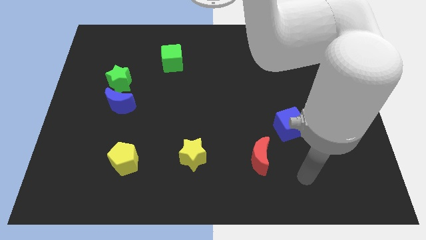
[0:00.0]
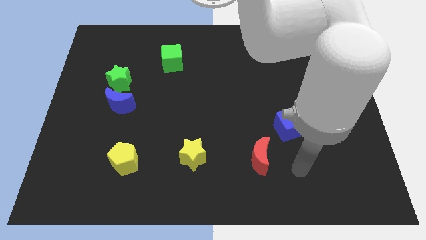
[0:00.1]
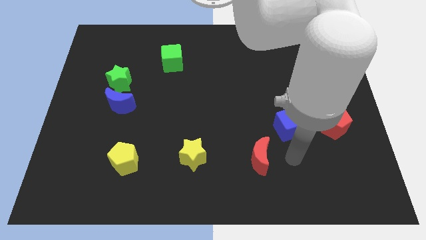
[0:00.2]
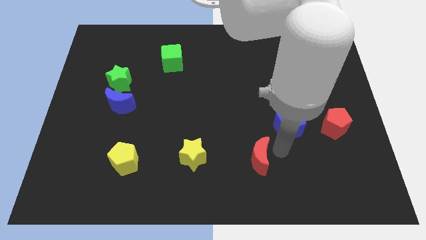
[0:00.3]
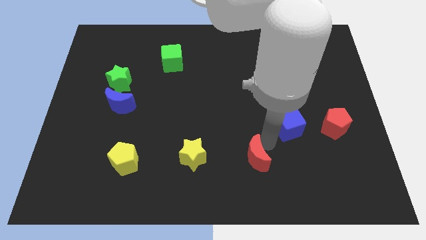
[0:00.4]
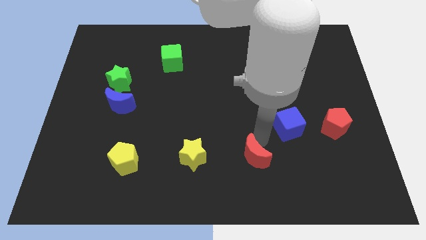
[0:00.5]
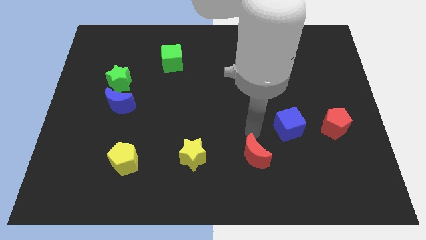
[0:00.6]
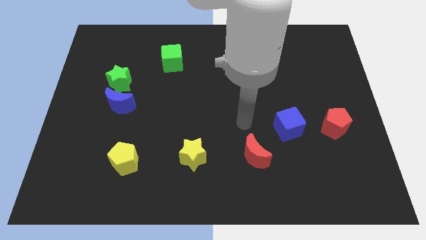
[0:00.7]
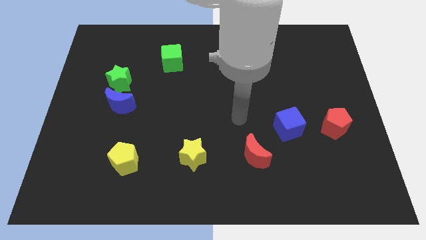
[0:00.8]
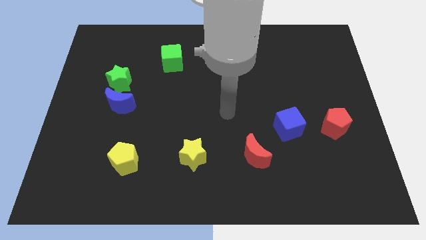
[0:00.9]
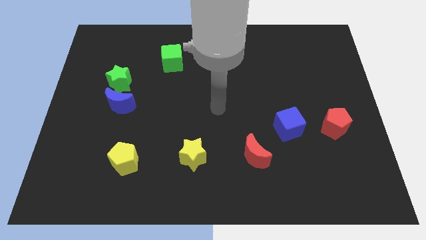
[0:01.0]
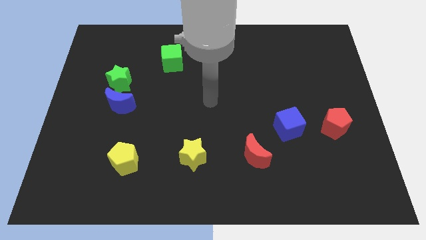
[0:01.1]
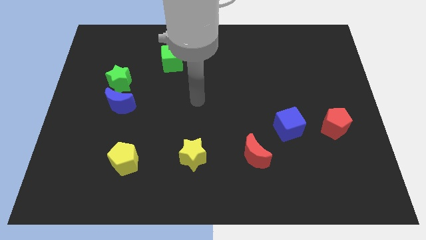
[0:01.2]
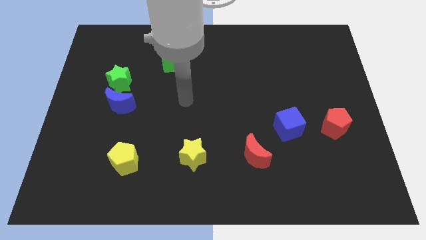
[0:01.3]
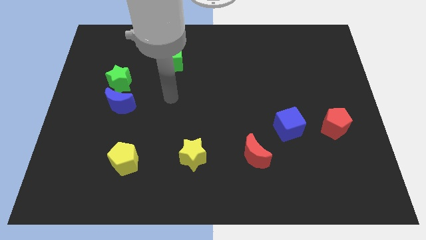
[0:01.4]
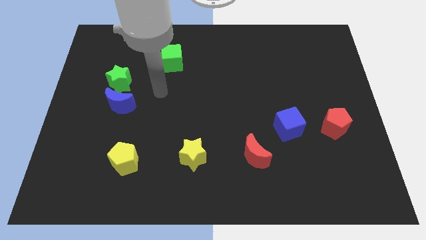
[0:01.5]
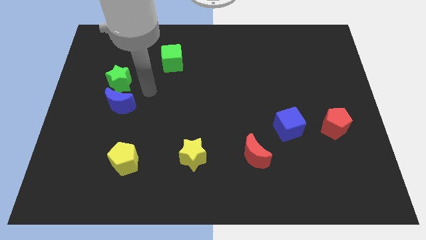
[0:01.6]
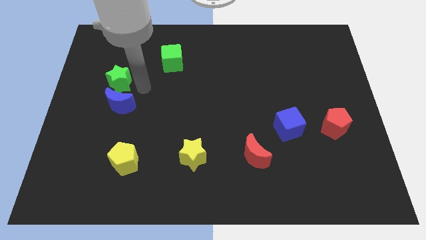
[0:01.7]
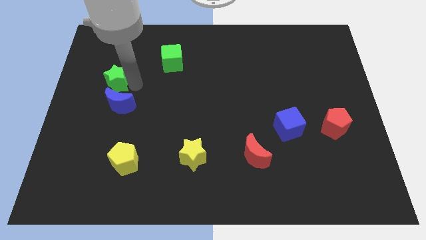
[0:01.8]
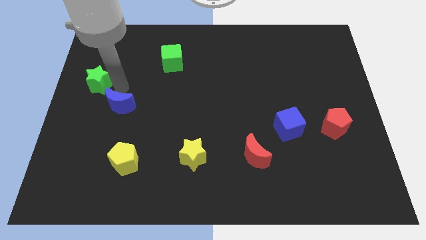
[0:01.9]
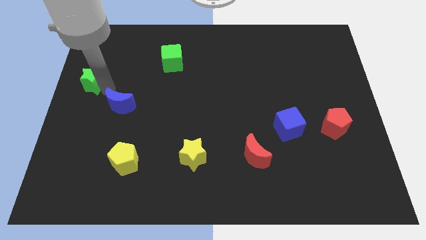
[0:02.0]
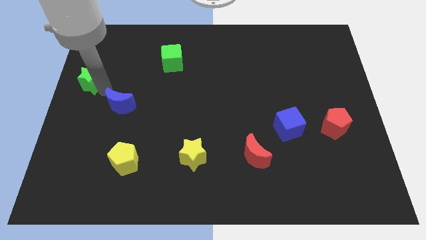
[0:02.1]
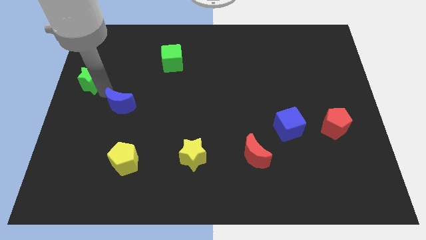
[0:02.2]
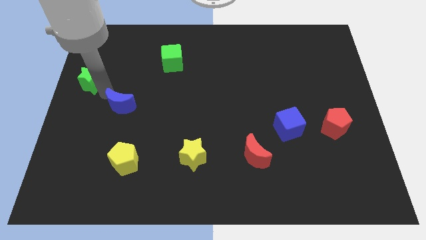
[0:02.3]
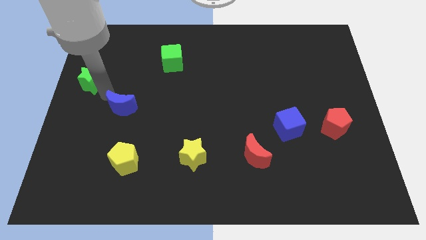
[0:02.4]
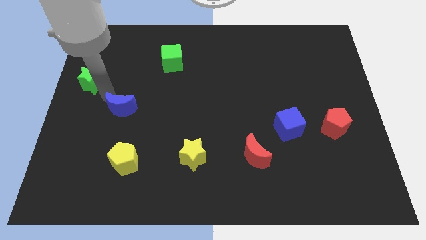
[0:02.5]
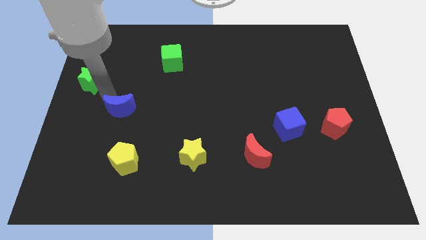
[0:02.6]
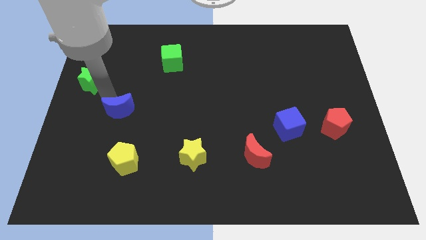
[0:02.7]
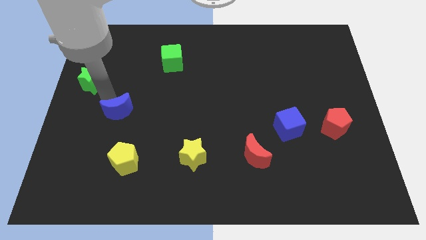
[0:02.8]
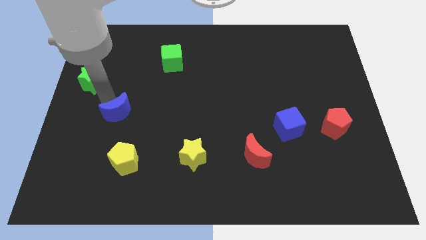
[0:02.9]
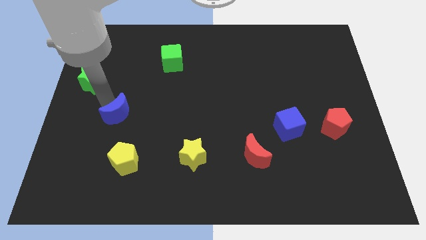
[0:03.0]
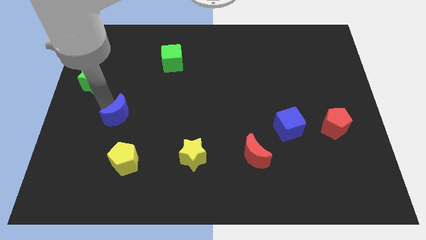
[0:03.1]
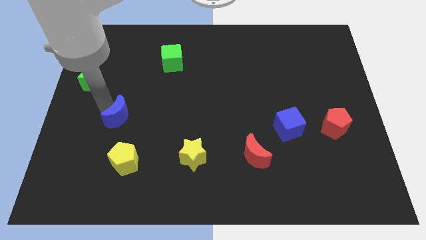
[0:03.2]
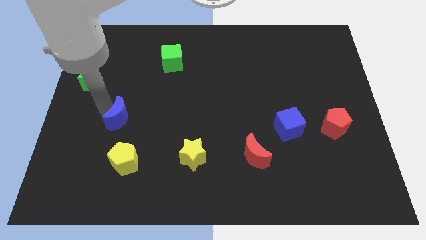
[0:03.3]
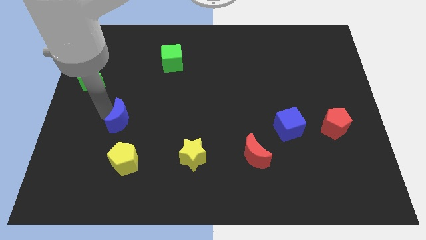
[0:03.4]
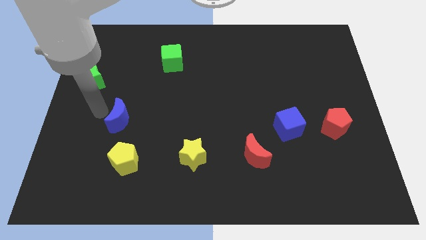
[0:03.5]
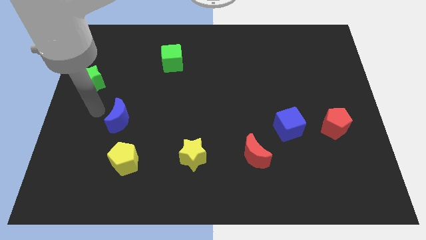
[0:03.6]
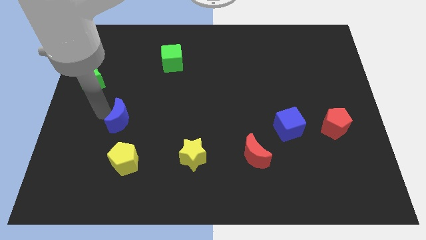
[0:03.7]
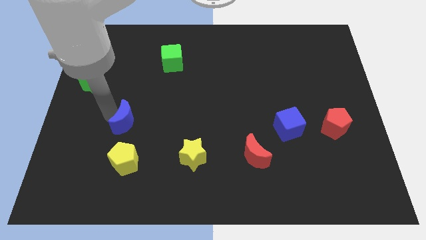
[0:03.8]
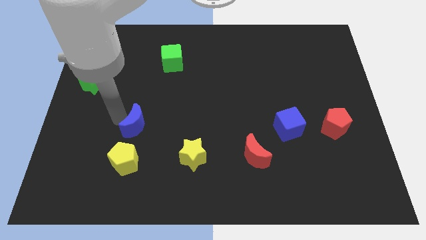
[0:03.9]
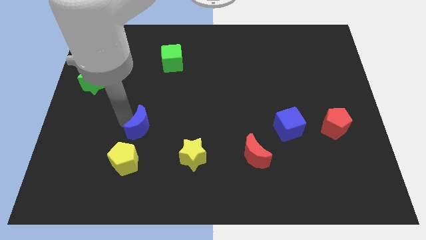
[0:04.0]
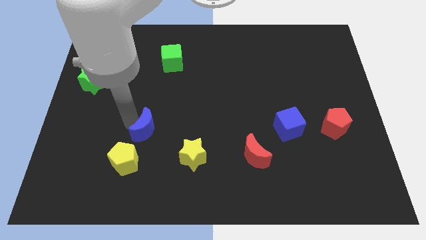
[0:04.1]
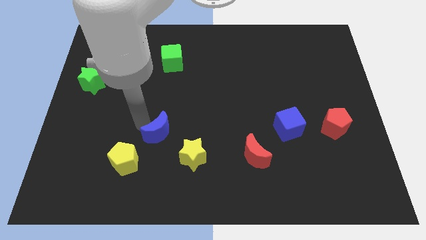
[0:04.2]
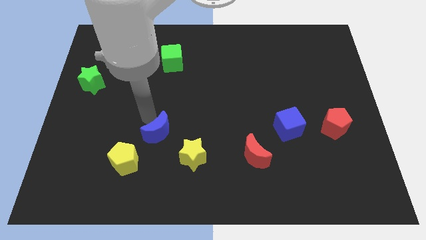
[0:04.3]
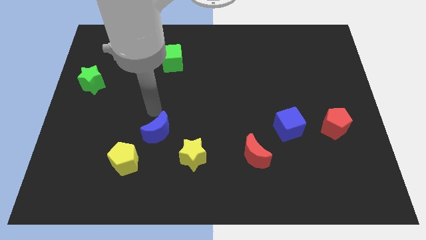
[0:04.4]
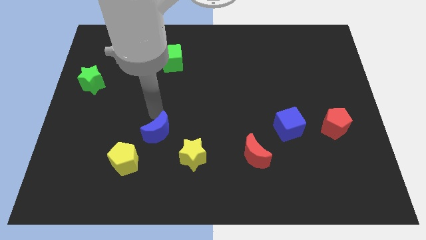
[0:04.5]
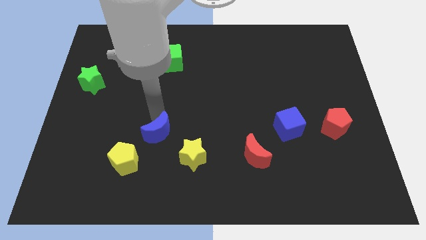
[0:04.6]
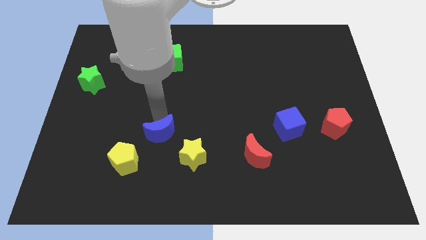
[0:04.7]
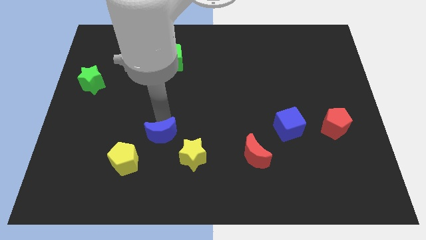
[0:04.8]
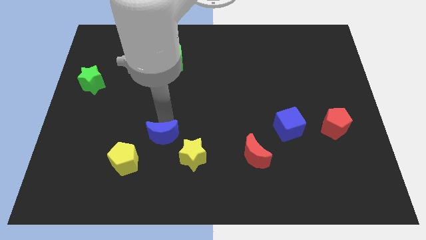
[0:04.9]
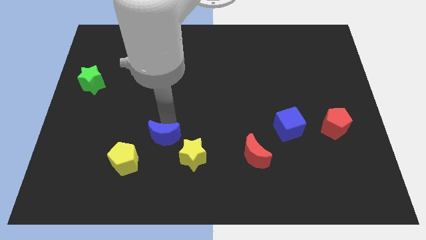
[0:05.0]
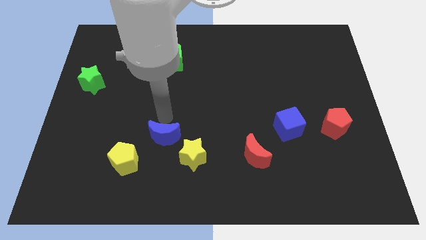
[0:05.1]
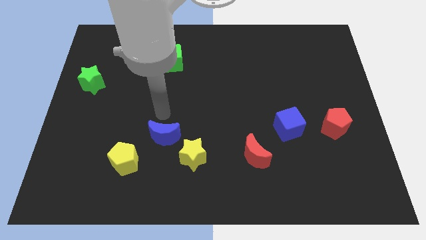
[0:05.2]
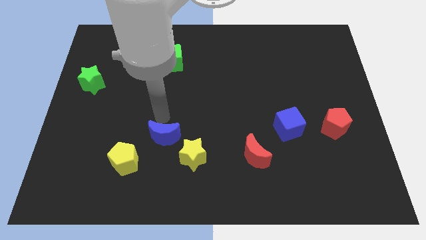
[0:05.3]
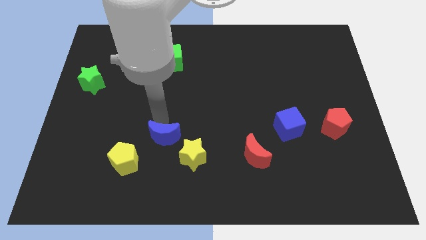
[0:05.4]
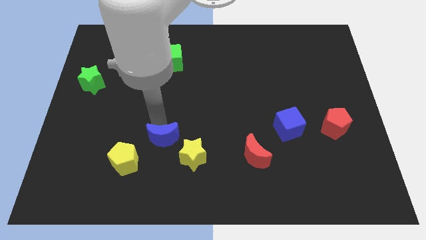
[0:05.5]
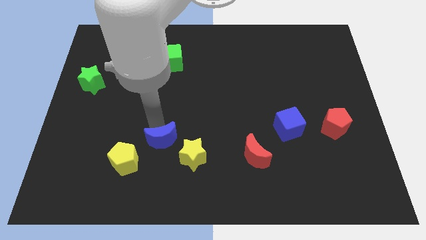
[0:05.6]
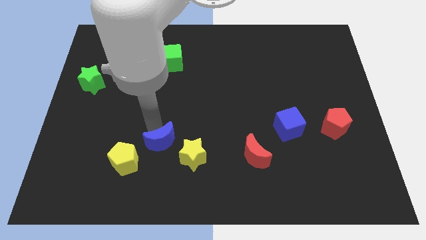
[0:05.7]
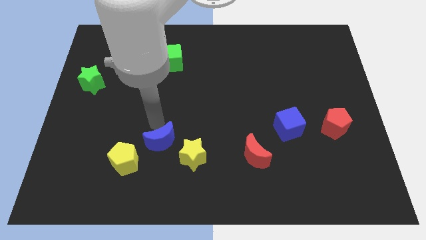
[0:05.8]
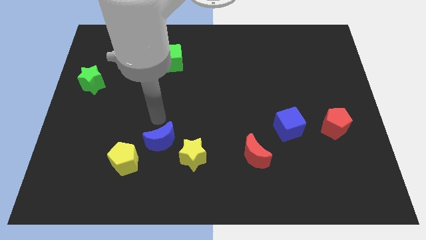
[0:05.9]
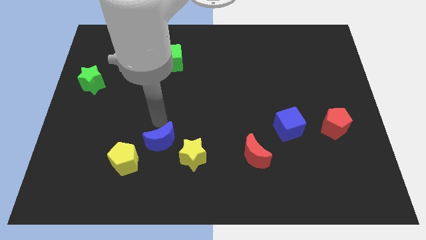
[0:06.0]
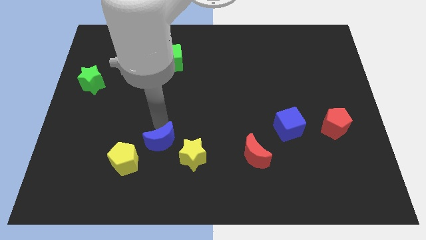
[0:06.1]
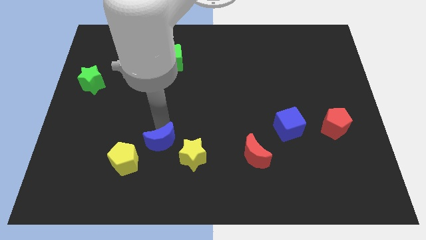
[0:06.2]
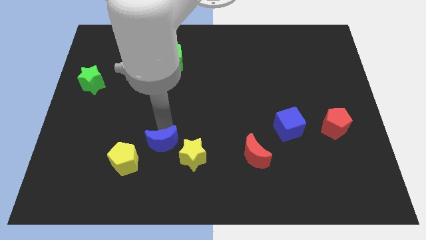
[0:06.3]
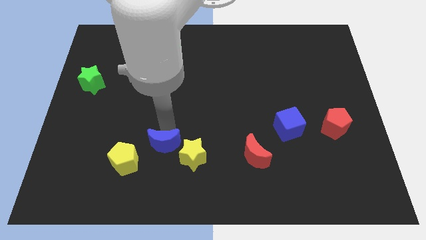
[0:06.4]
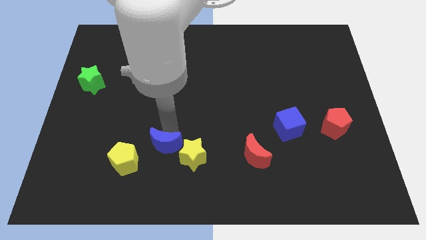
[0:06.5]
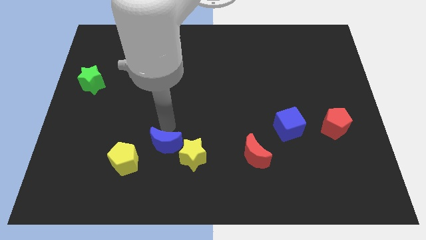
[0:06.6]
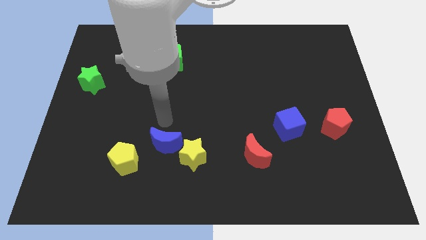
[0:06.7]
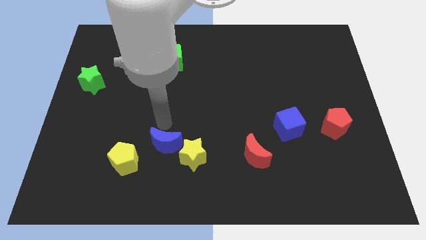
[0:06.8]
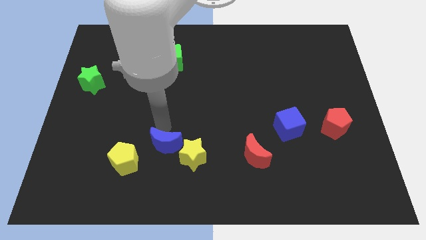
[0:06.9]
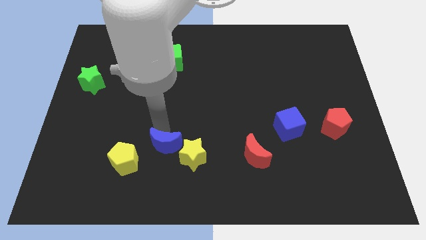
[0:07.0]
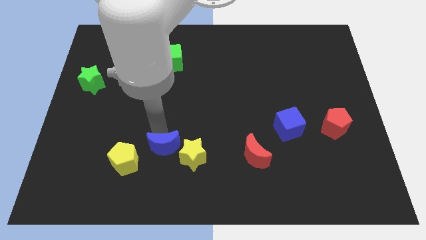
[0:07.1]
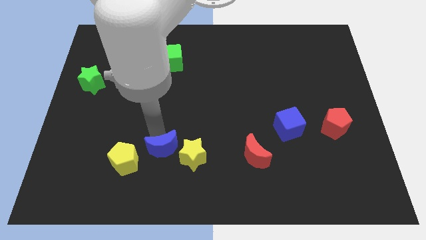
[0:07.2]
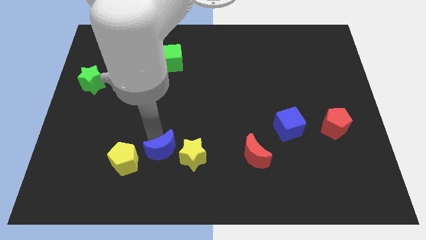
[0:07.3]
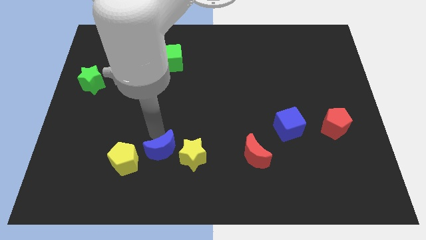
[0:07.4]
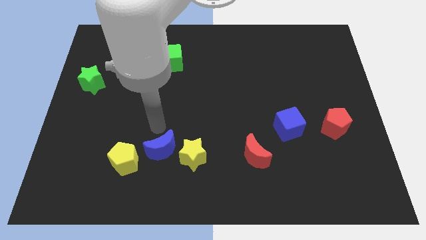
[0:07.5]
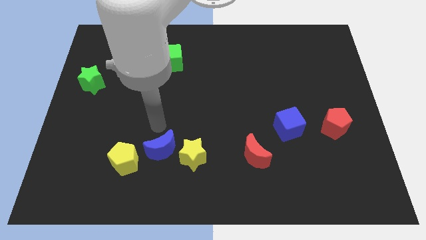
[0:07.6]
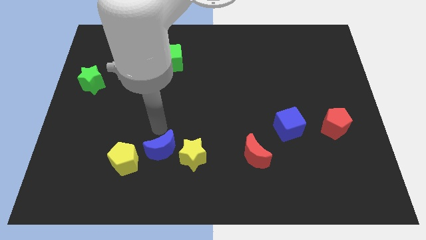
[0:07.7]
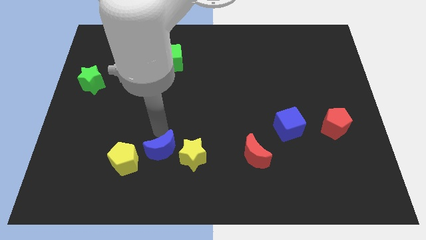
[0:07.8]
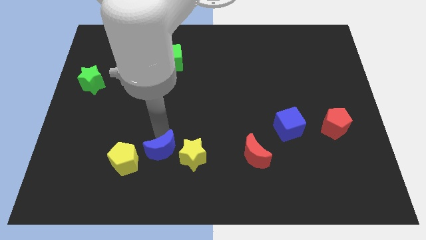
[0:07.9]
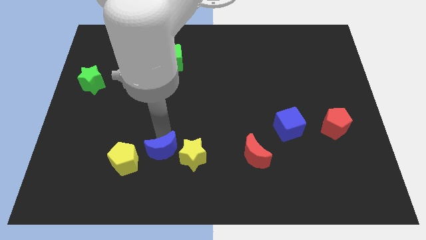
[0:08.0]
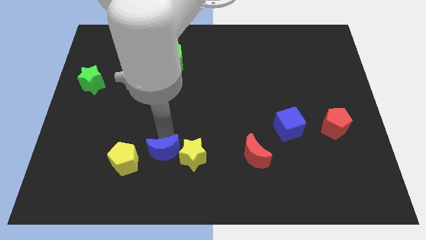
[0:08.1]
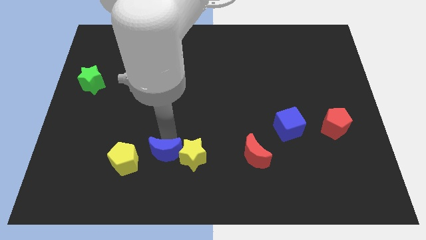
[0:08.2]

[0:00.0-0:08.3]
push the blue moon to the bottom left side of the yellow star
